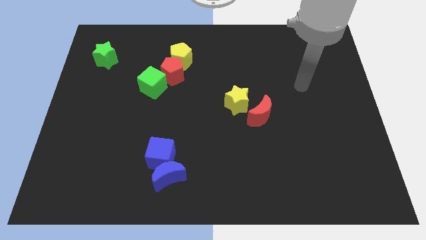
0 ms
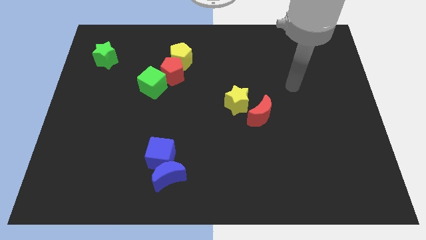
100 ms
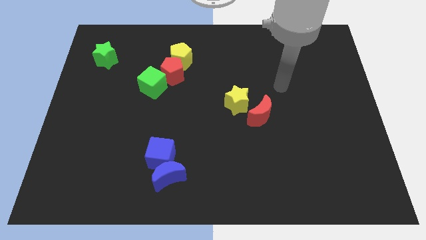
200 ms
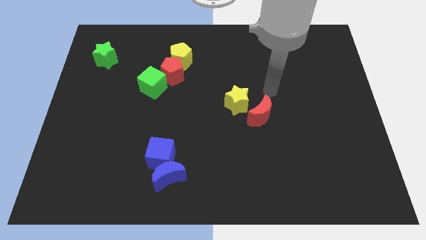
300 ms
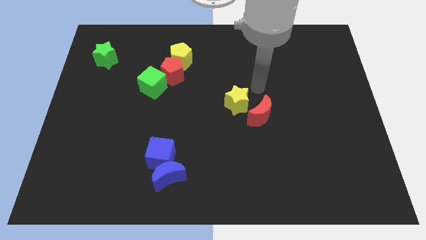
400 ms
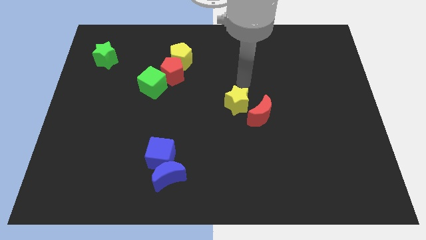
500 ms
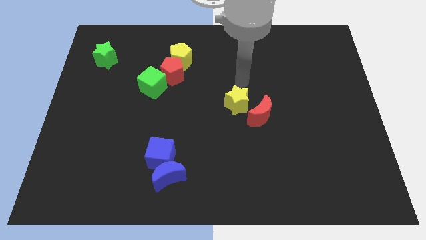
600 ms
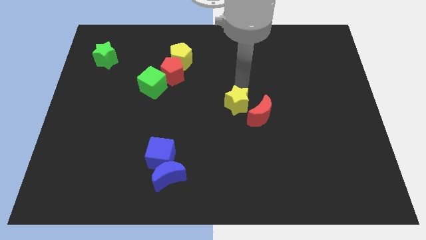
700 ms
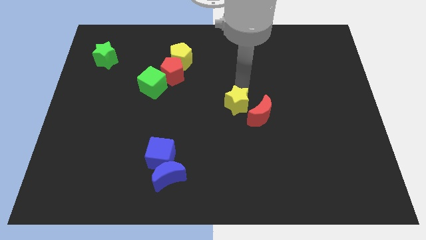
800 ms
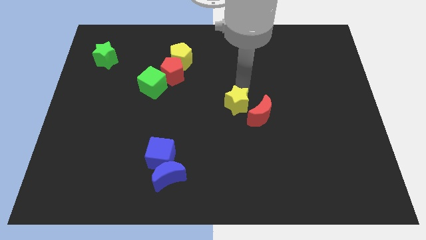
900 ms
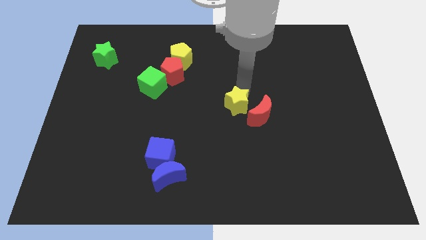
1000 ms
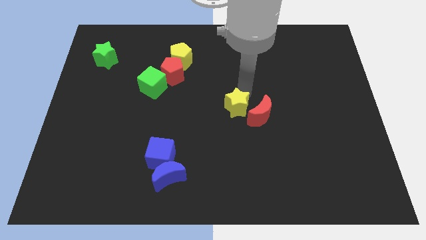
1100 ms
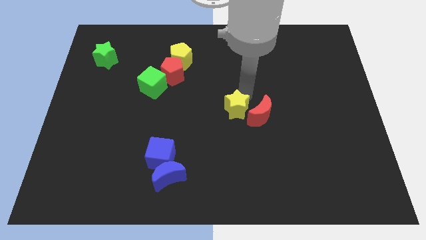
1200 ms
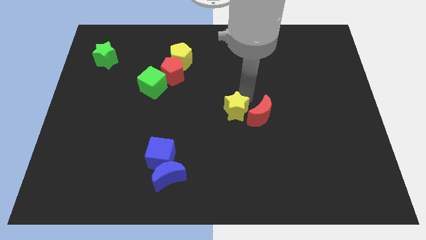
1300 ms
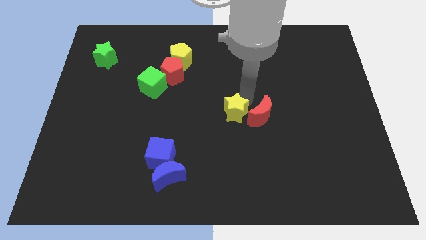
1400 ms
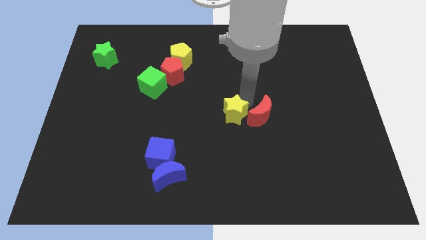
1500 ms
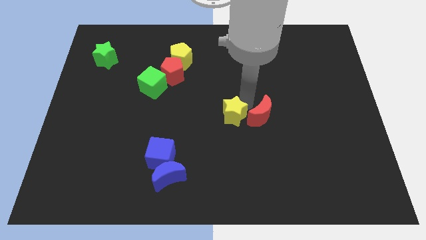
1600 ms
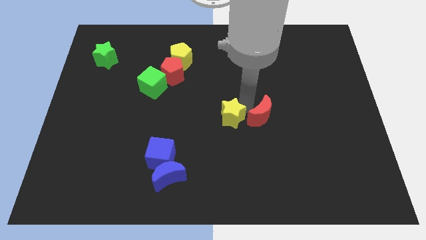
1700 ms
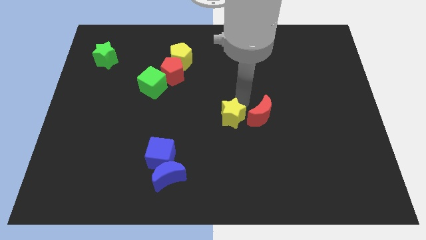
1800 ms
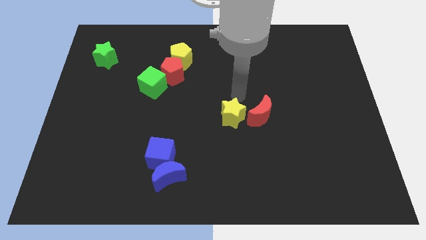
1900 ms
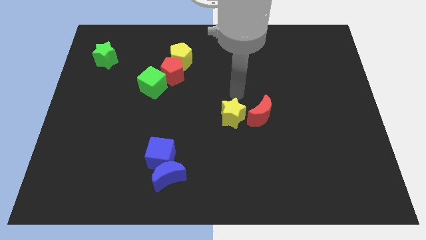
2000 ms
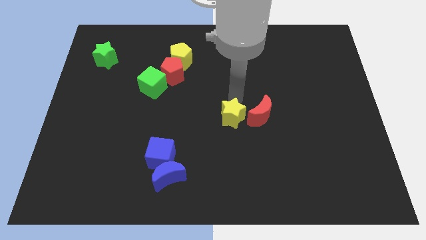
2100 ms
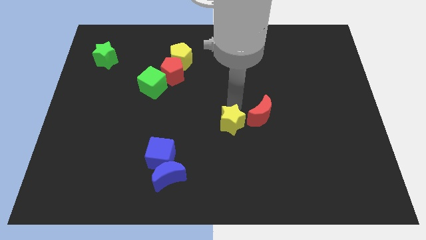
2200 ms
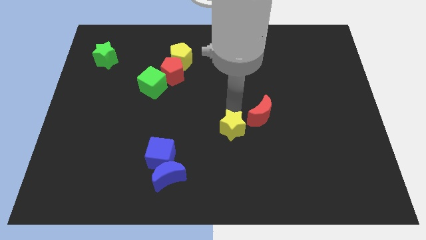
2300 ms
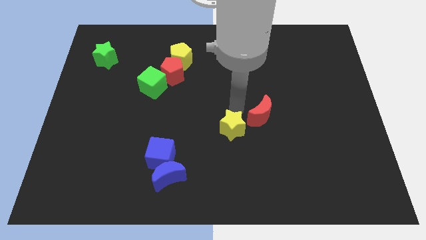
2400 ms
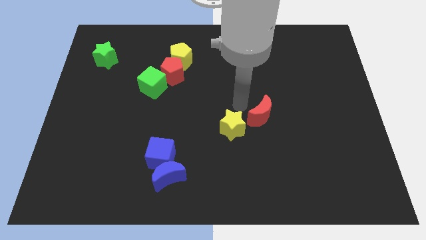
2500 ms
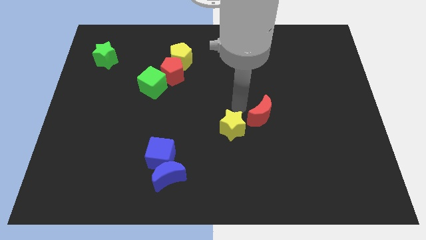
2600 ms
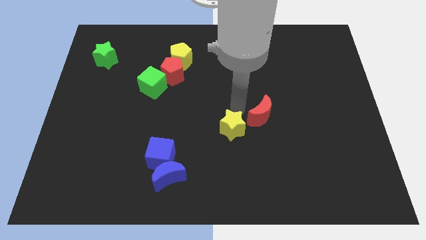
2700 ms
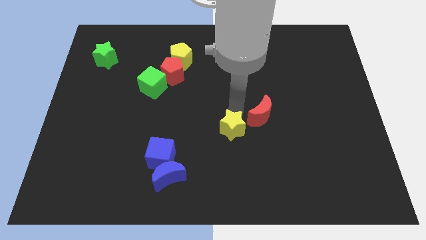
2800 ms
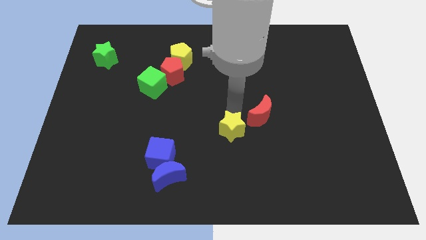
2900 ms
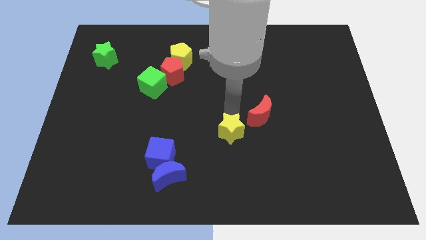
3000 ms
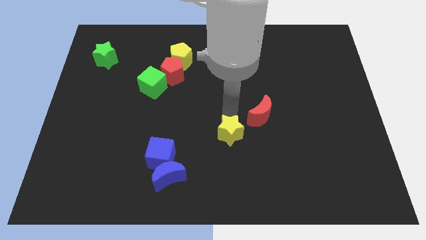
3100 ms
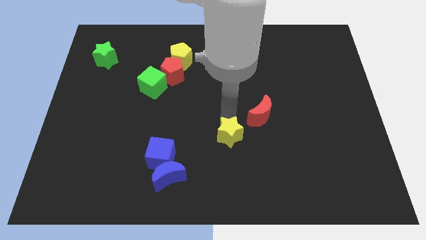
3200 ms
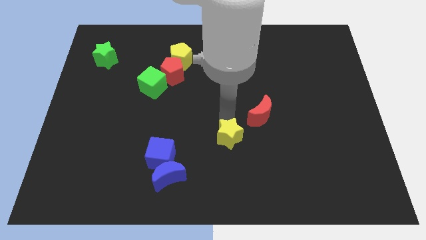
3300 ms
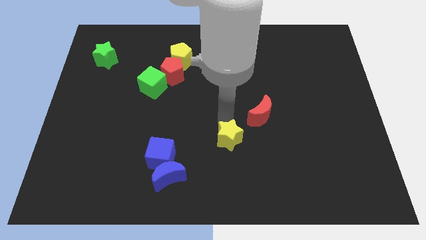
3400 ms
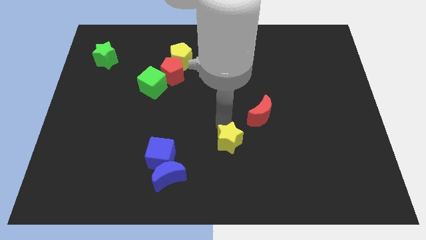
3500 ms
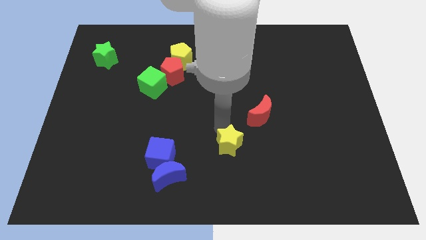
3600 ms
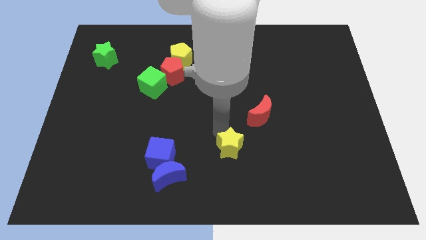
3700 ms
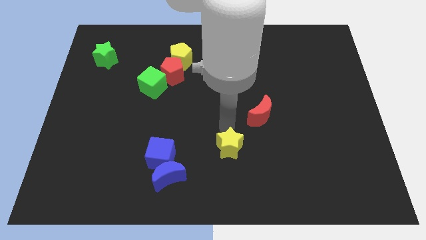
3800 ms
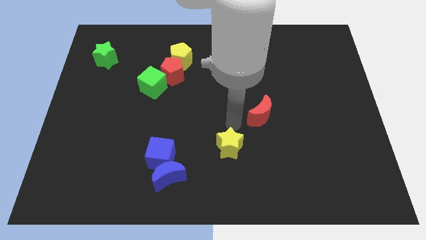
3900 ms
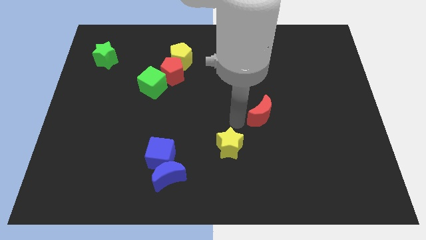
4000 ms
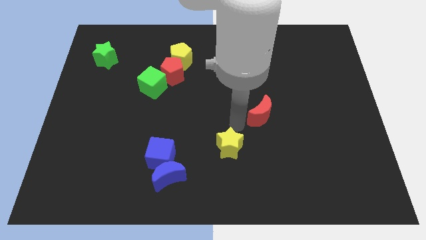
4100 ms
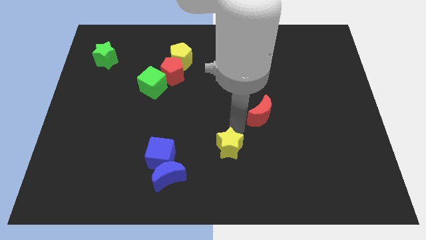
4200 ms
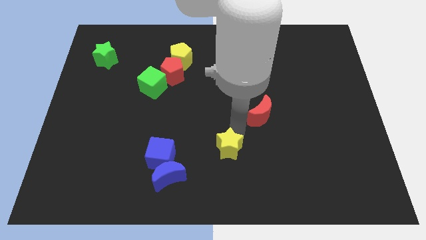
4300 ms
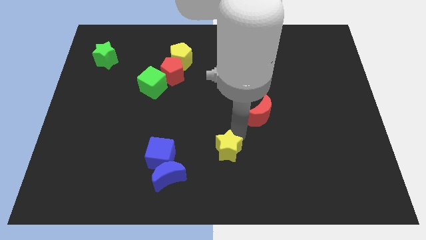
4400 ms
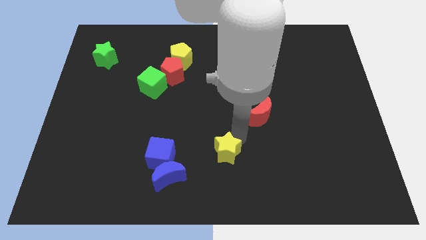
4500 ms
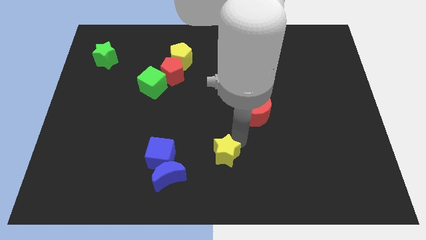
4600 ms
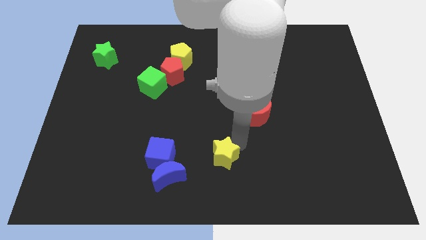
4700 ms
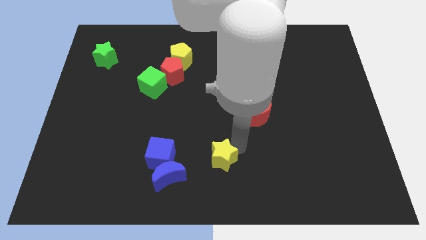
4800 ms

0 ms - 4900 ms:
put the yellow star just right of the blue moon

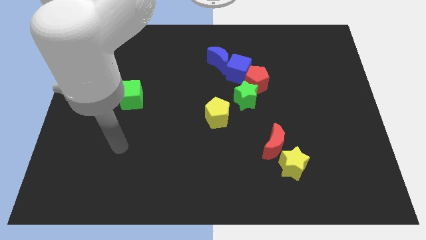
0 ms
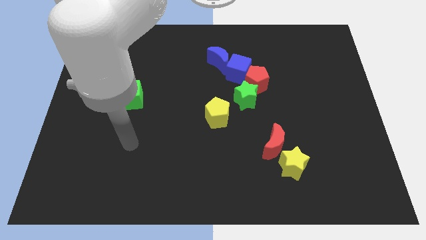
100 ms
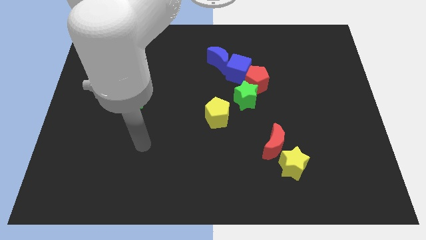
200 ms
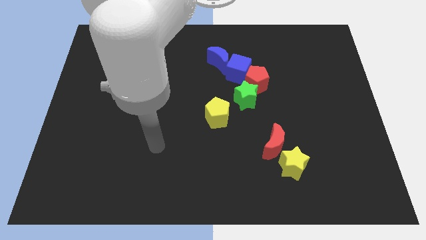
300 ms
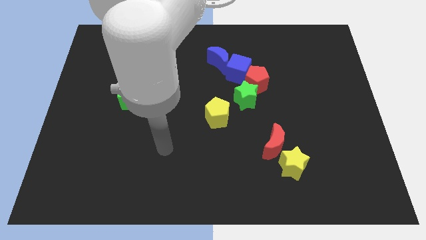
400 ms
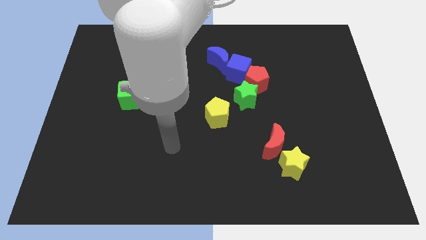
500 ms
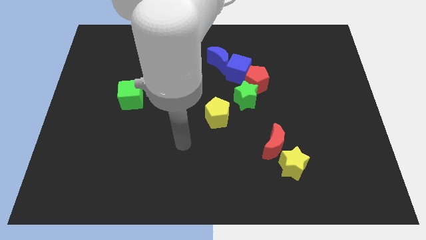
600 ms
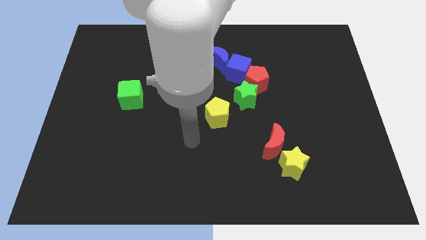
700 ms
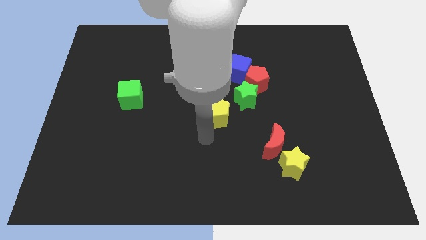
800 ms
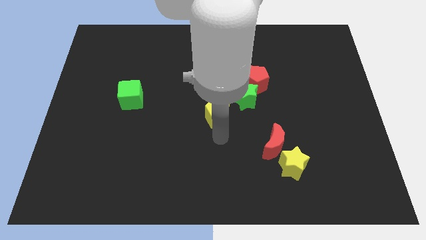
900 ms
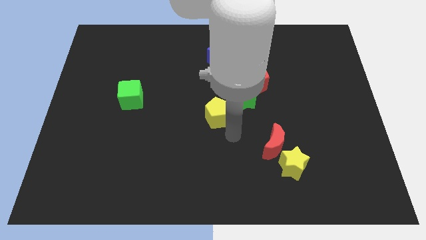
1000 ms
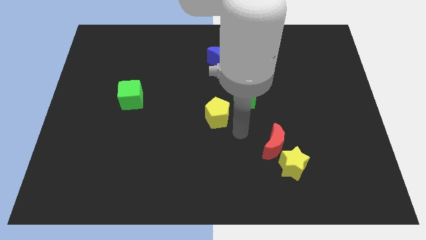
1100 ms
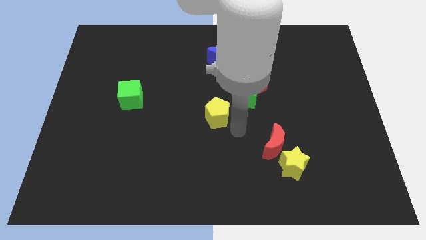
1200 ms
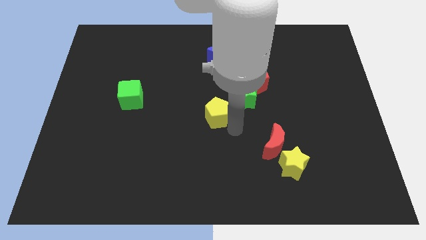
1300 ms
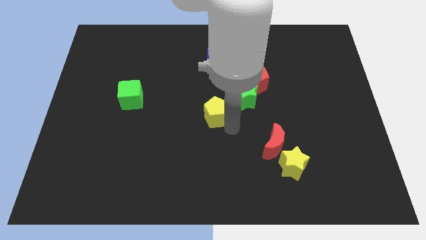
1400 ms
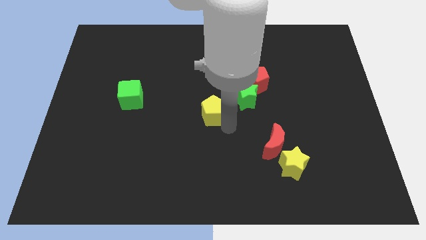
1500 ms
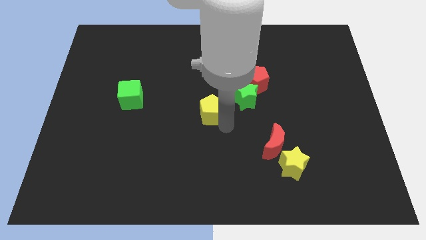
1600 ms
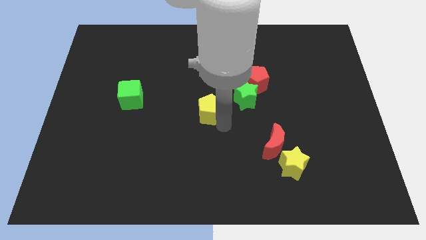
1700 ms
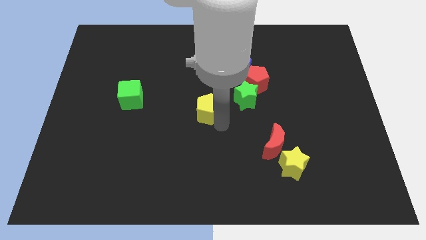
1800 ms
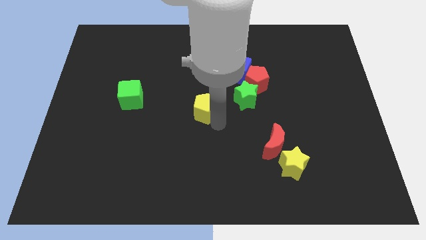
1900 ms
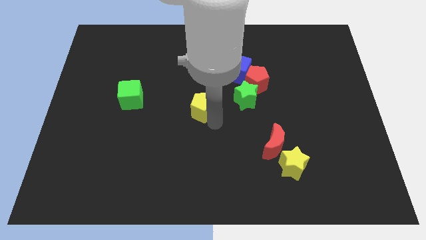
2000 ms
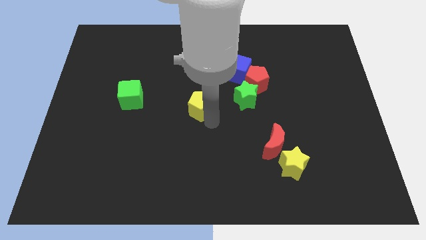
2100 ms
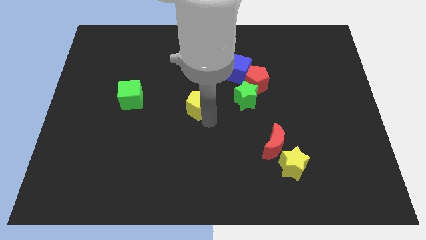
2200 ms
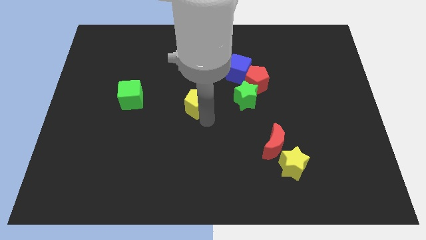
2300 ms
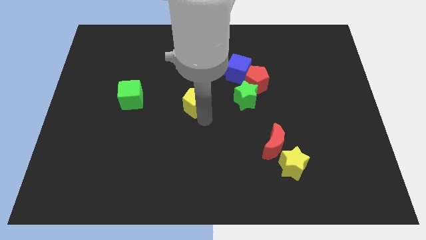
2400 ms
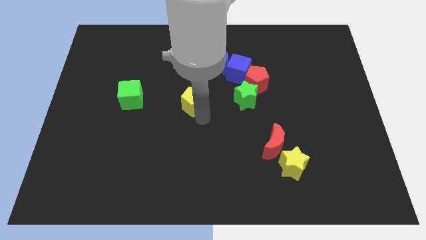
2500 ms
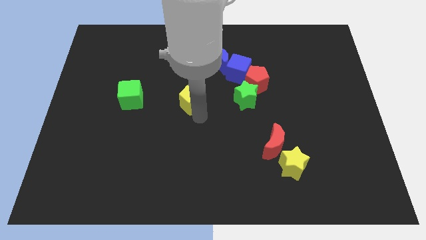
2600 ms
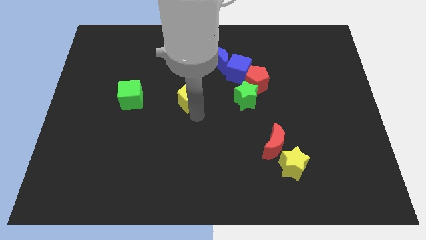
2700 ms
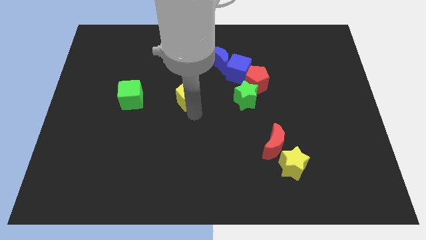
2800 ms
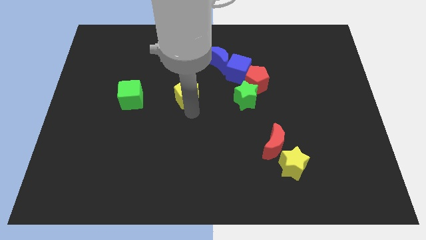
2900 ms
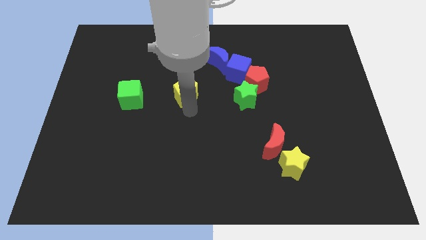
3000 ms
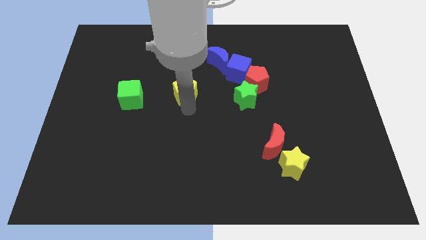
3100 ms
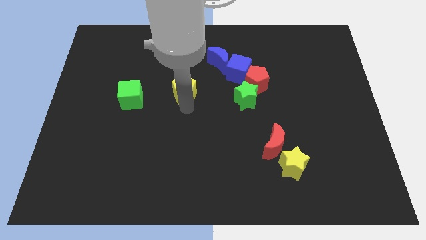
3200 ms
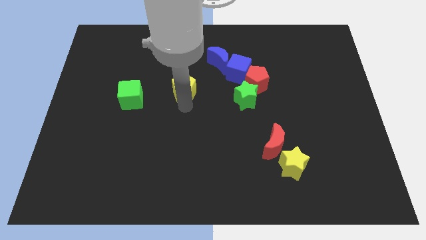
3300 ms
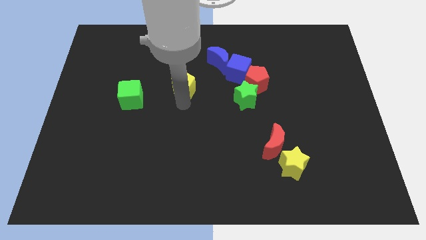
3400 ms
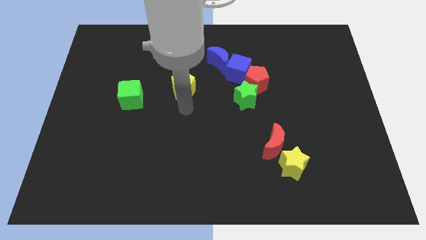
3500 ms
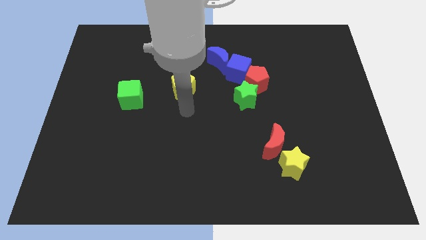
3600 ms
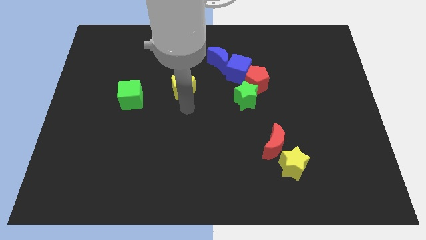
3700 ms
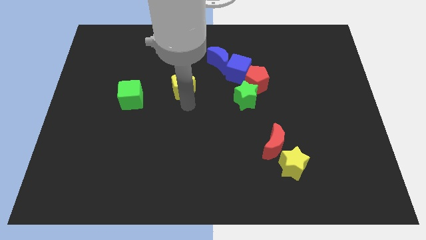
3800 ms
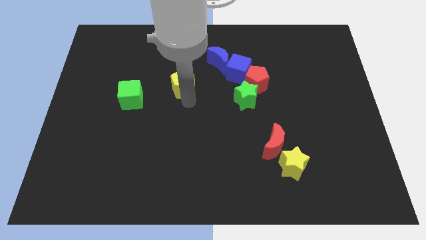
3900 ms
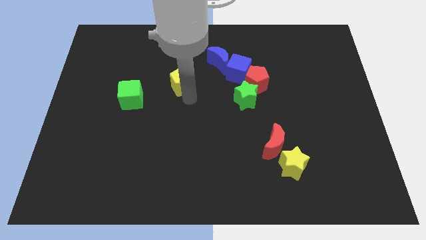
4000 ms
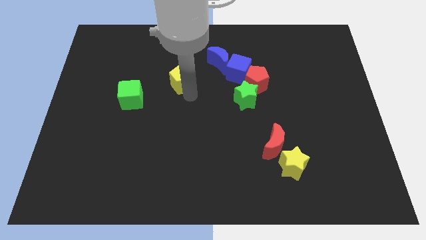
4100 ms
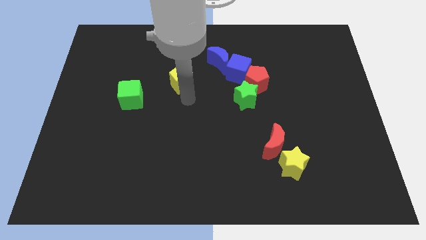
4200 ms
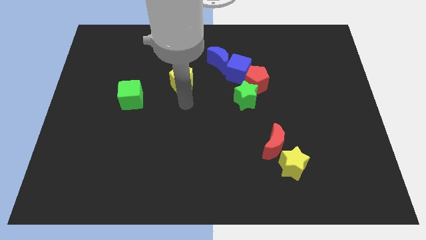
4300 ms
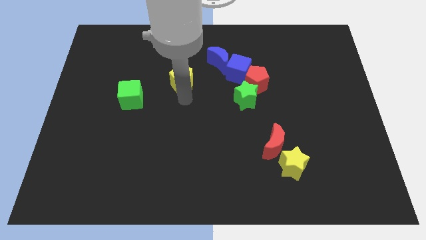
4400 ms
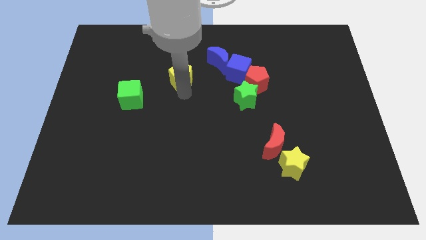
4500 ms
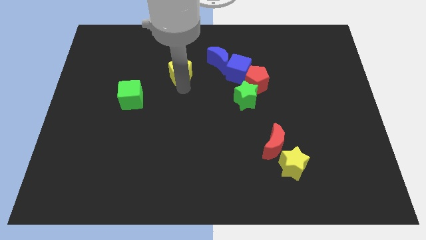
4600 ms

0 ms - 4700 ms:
move the yellow pentagon left of the blue moon
